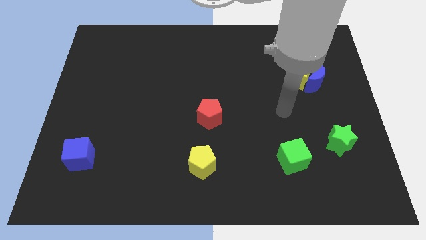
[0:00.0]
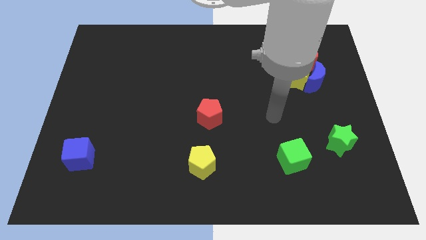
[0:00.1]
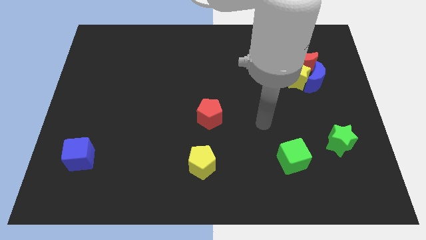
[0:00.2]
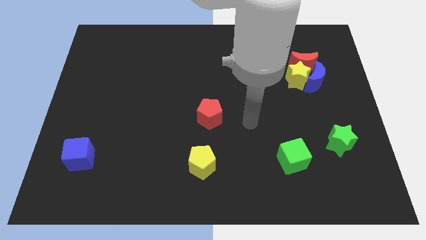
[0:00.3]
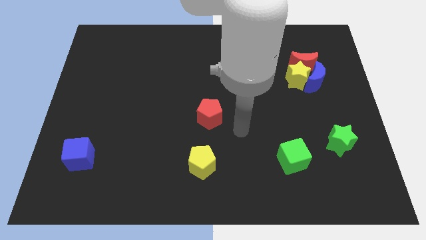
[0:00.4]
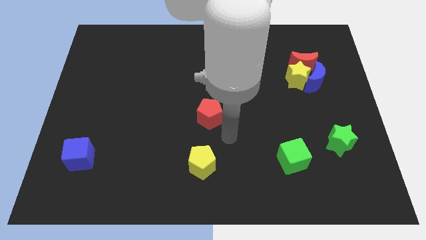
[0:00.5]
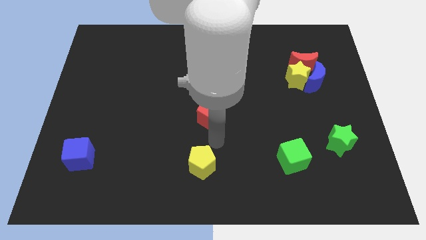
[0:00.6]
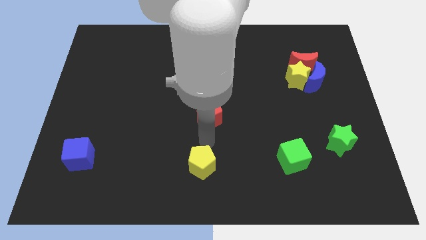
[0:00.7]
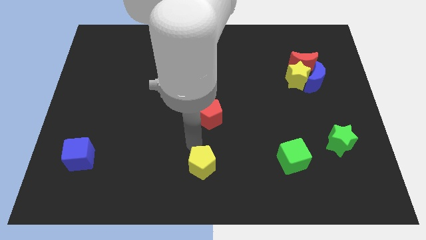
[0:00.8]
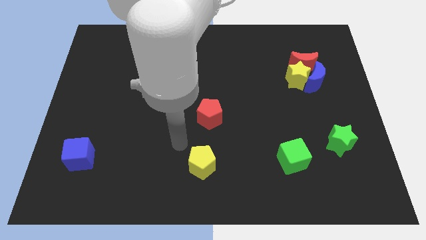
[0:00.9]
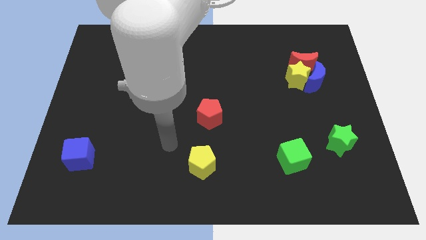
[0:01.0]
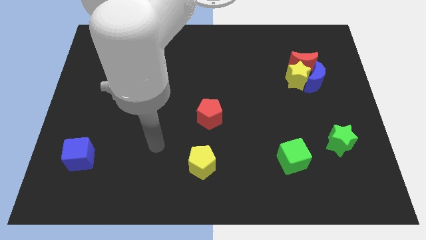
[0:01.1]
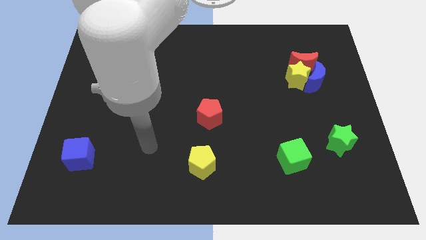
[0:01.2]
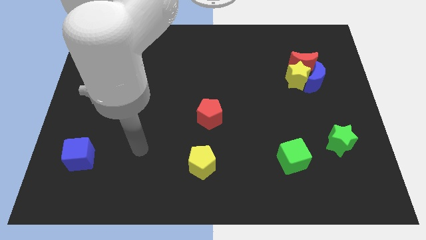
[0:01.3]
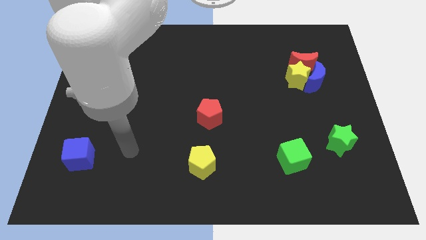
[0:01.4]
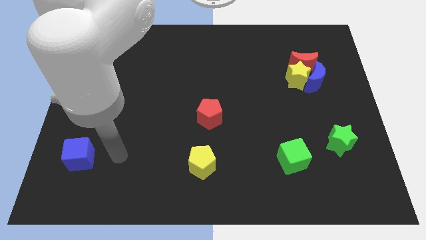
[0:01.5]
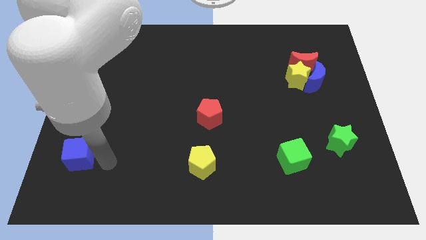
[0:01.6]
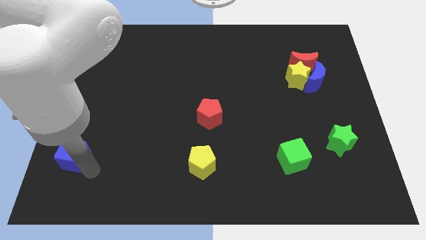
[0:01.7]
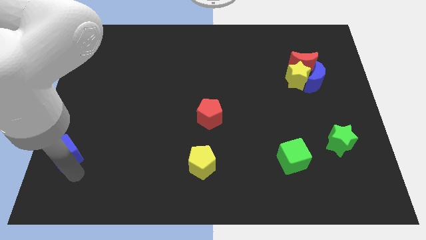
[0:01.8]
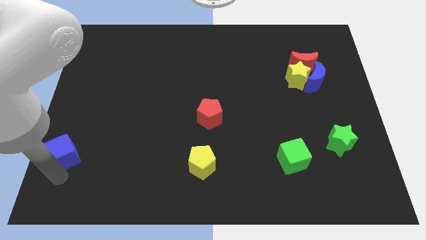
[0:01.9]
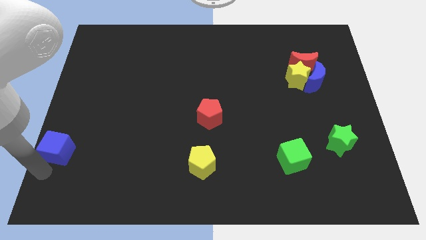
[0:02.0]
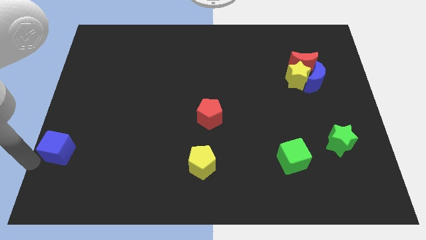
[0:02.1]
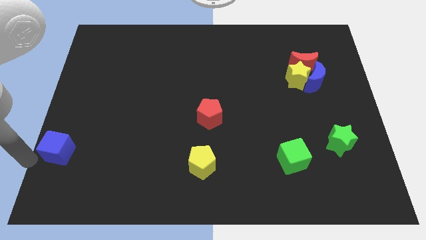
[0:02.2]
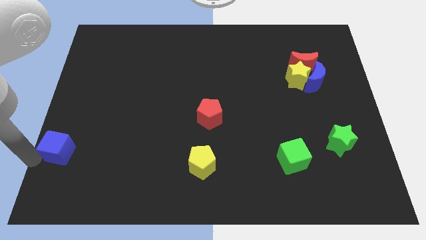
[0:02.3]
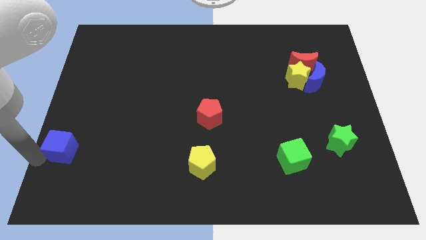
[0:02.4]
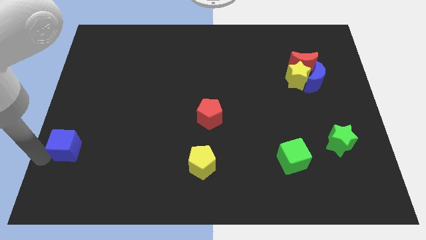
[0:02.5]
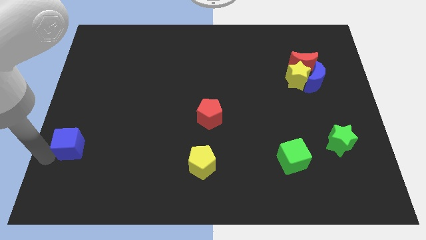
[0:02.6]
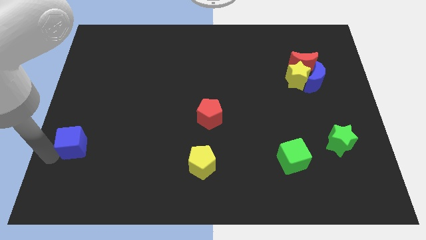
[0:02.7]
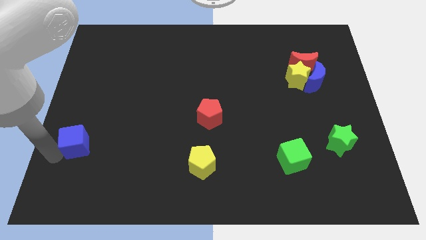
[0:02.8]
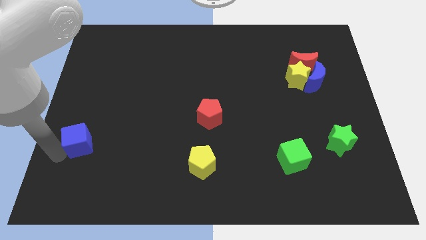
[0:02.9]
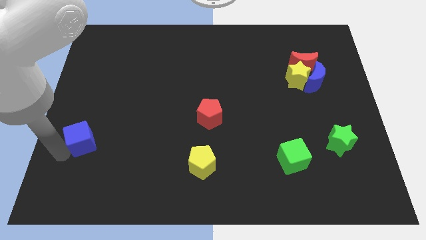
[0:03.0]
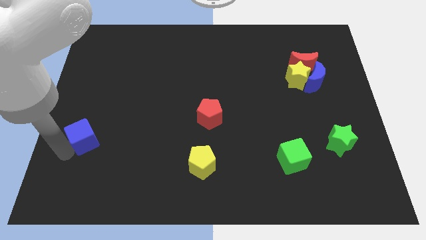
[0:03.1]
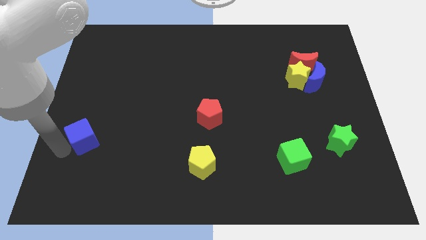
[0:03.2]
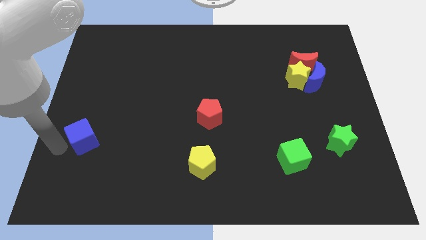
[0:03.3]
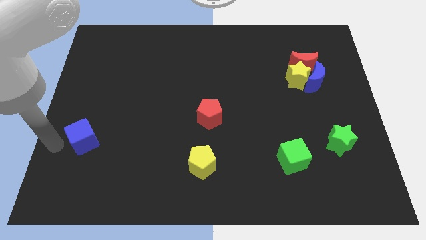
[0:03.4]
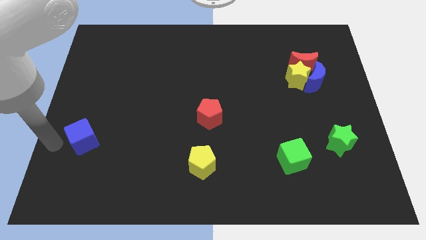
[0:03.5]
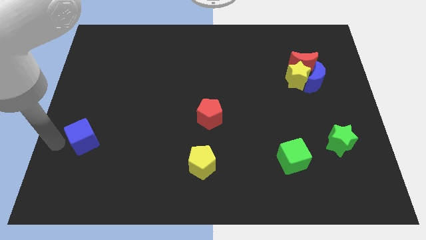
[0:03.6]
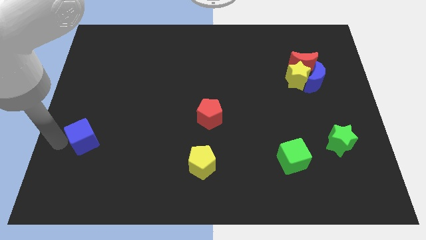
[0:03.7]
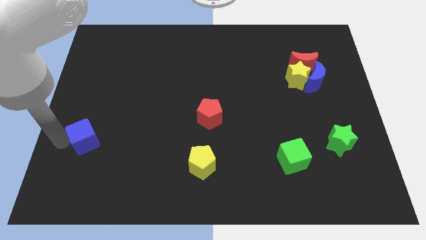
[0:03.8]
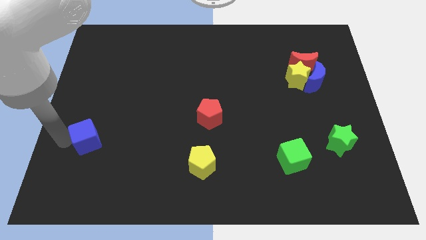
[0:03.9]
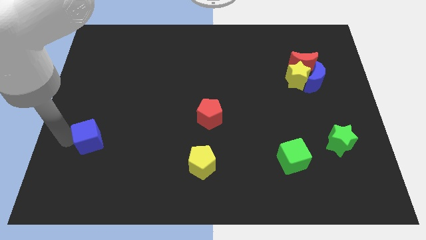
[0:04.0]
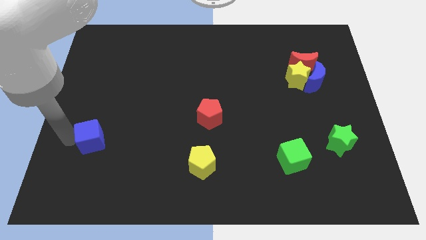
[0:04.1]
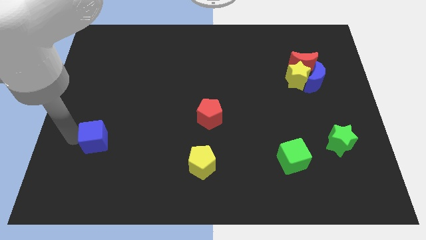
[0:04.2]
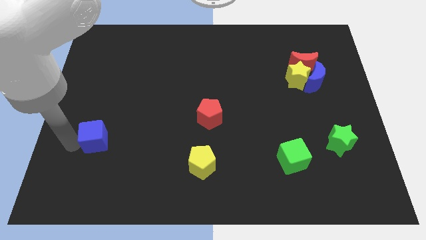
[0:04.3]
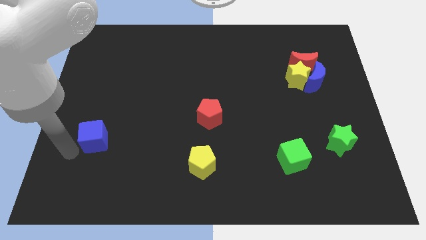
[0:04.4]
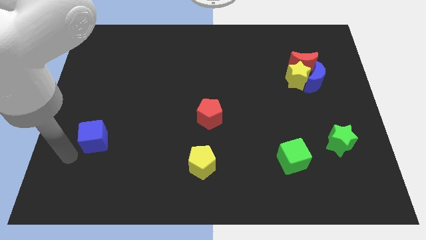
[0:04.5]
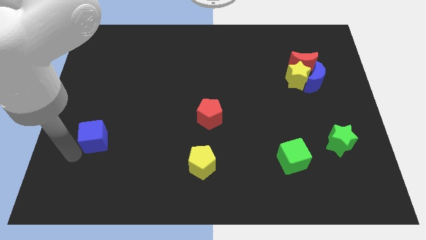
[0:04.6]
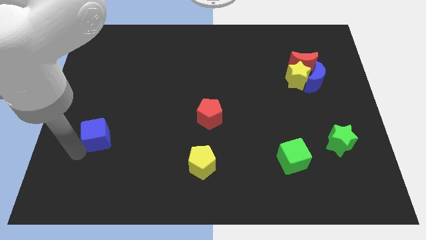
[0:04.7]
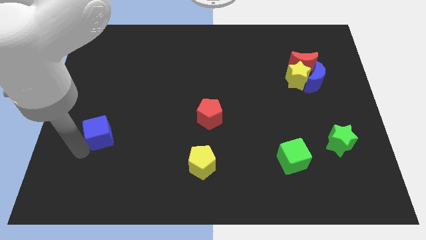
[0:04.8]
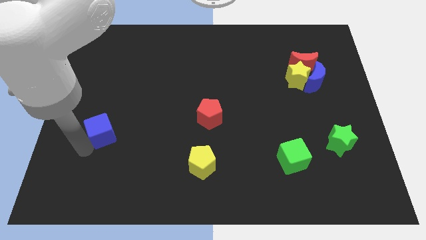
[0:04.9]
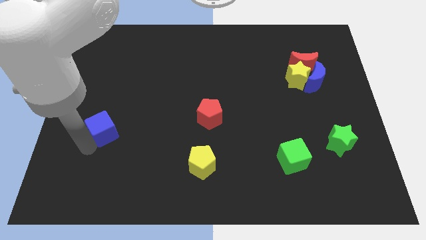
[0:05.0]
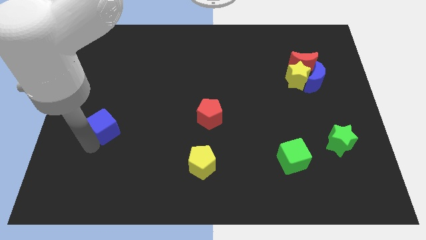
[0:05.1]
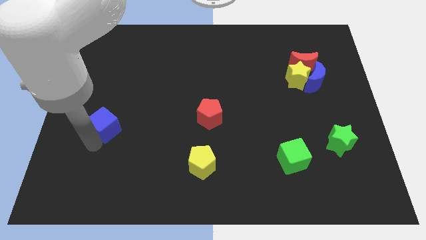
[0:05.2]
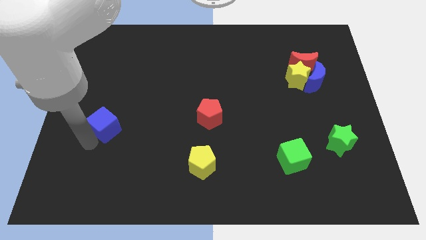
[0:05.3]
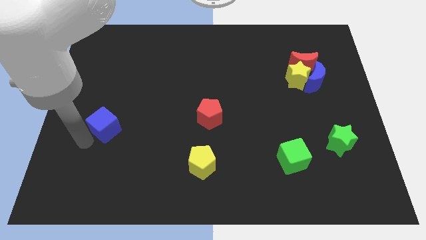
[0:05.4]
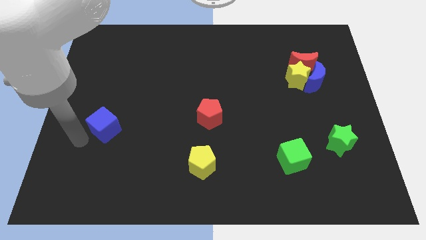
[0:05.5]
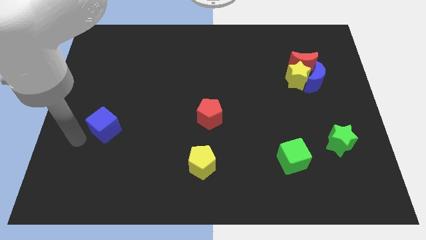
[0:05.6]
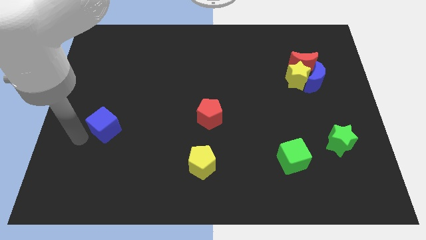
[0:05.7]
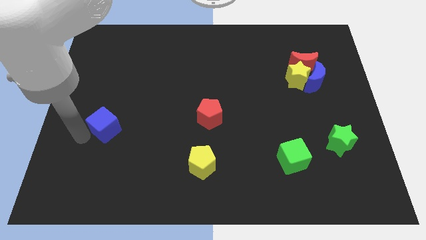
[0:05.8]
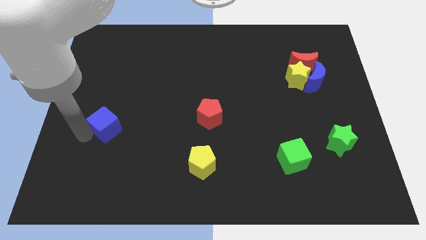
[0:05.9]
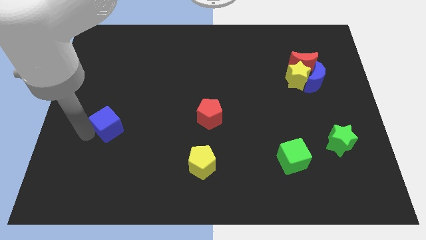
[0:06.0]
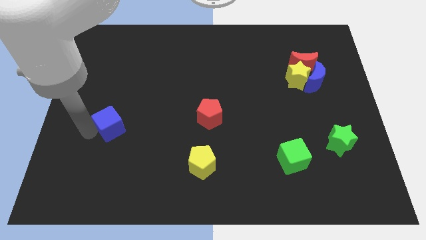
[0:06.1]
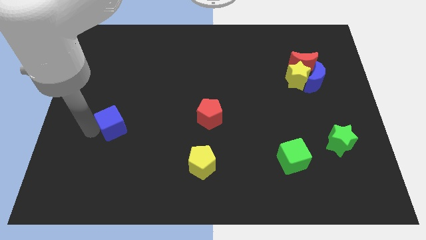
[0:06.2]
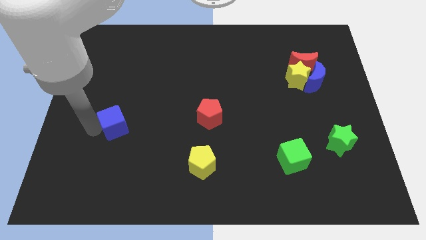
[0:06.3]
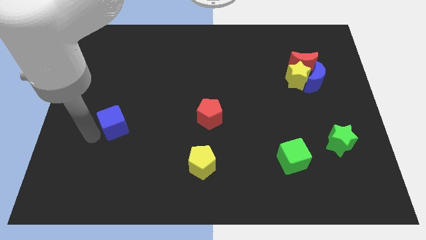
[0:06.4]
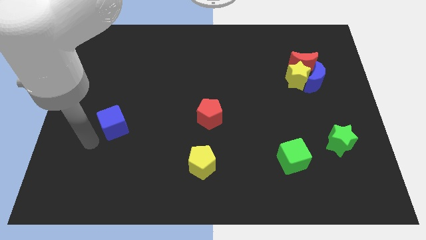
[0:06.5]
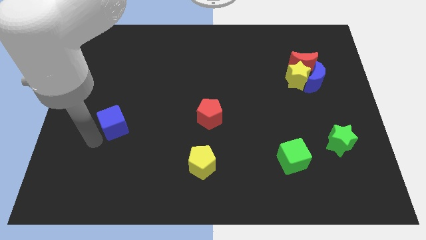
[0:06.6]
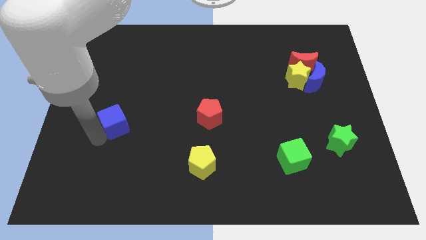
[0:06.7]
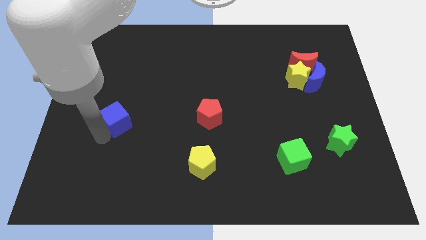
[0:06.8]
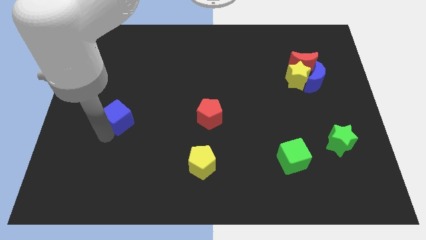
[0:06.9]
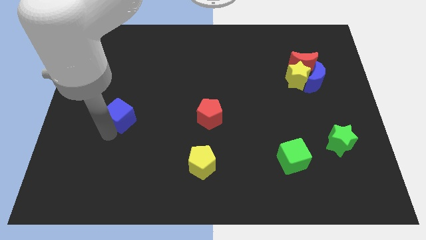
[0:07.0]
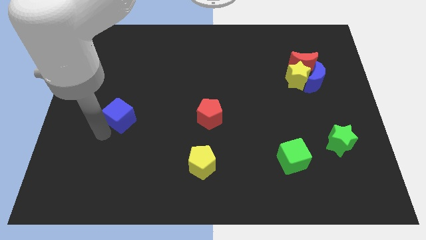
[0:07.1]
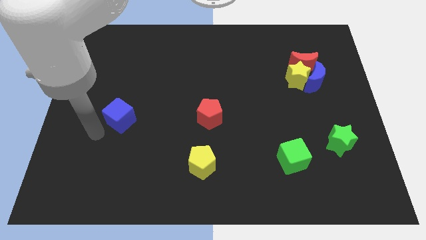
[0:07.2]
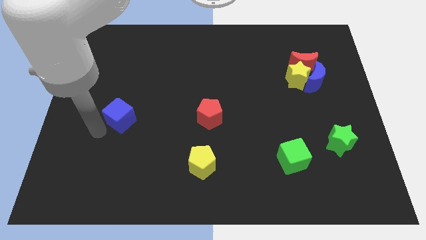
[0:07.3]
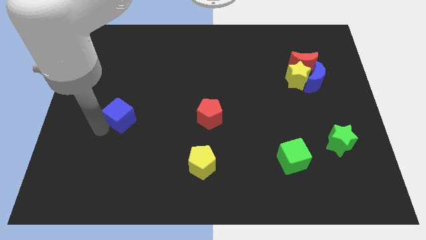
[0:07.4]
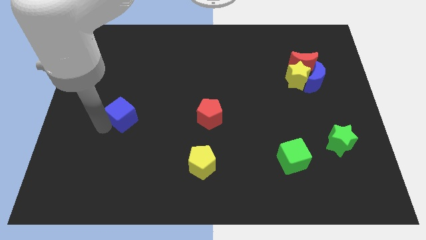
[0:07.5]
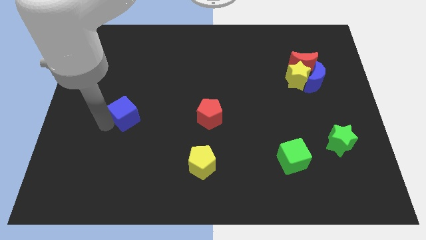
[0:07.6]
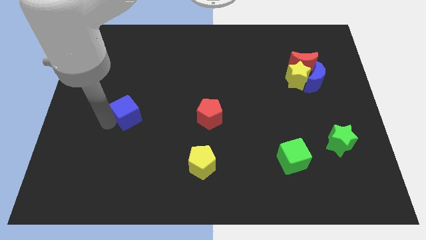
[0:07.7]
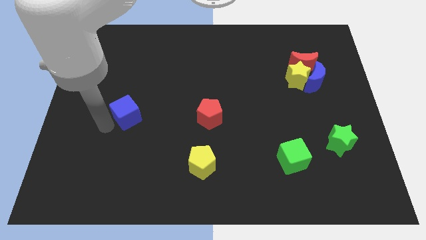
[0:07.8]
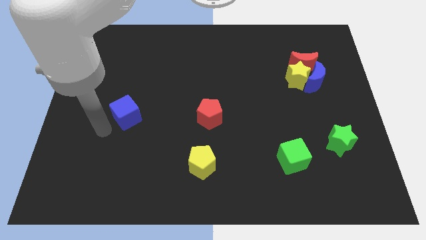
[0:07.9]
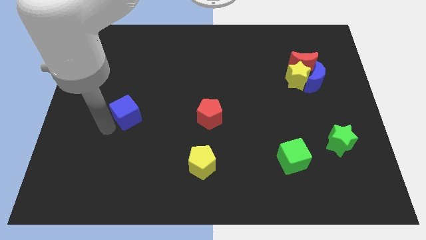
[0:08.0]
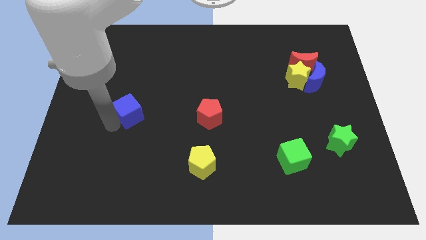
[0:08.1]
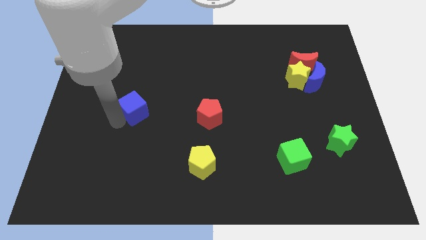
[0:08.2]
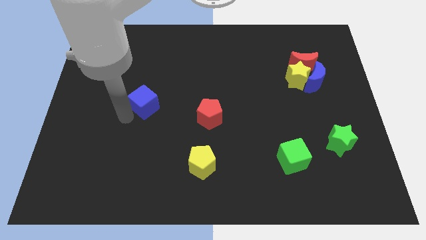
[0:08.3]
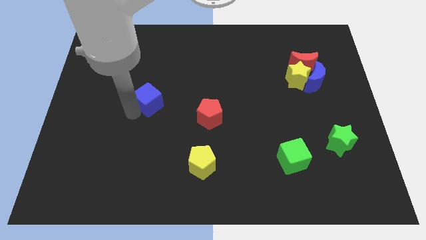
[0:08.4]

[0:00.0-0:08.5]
move the blue cube diagonally upwards and to the right
